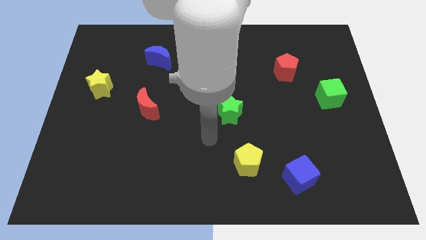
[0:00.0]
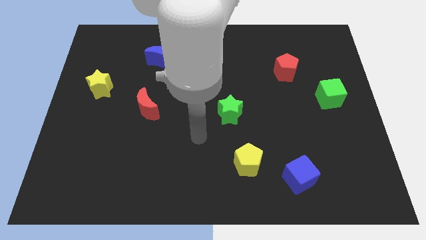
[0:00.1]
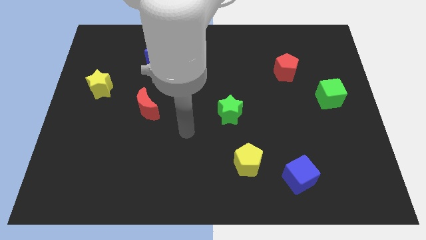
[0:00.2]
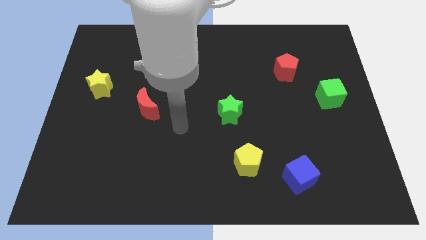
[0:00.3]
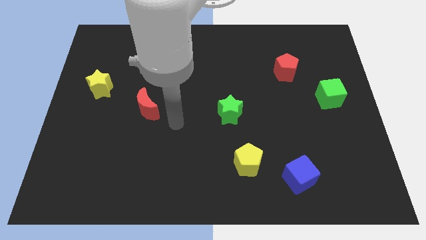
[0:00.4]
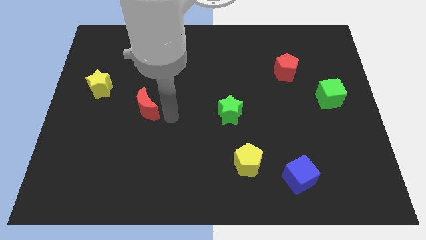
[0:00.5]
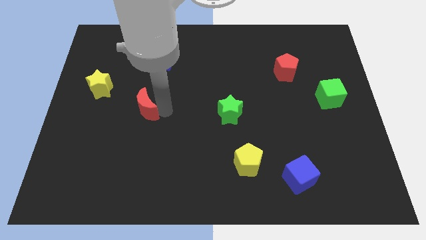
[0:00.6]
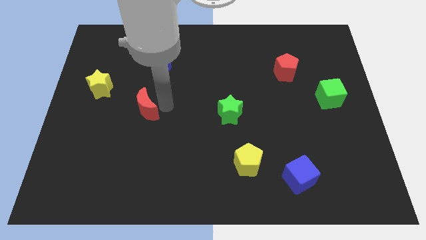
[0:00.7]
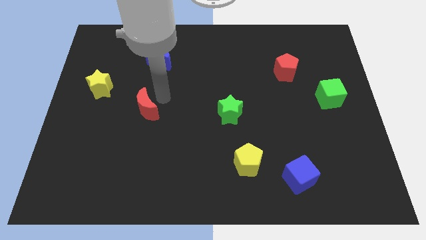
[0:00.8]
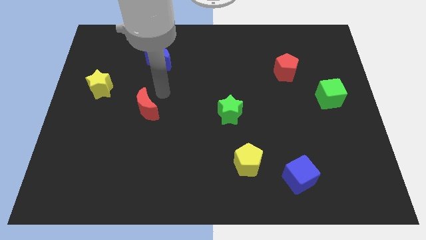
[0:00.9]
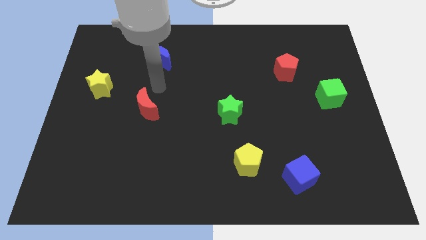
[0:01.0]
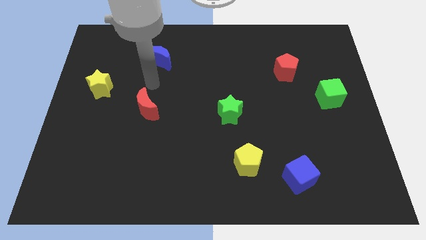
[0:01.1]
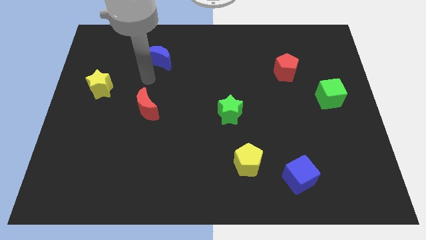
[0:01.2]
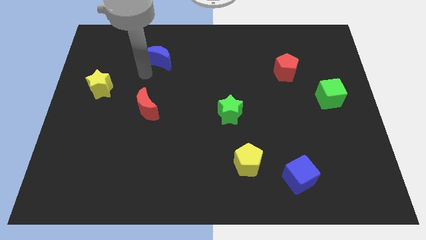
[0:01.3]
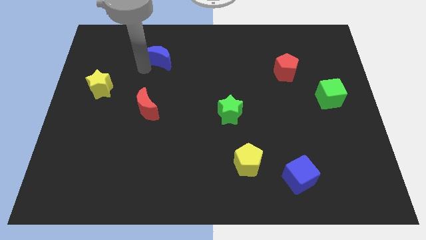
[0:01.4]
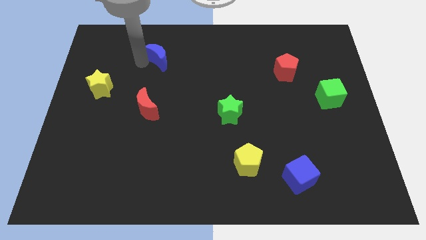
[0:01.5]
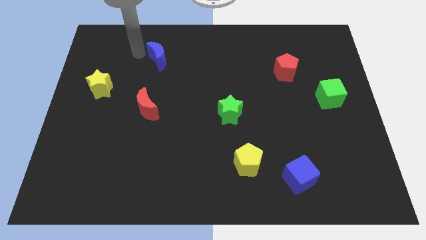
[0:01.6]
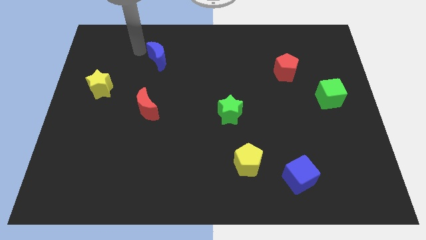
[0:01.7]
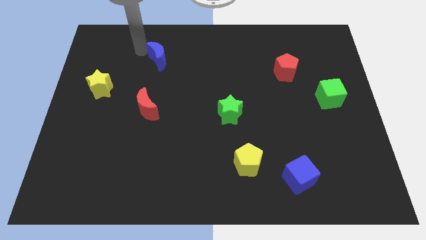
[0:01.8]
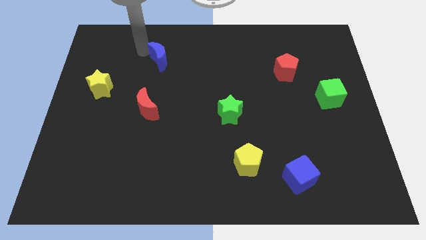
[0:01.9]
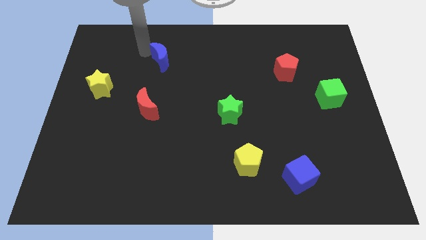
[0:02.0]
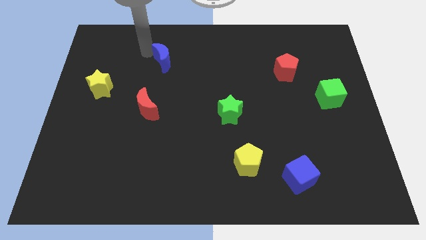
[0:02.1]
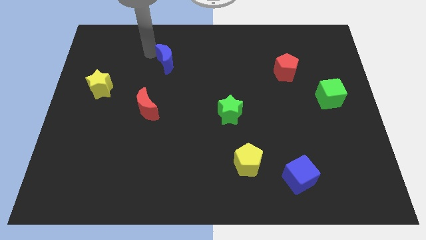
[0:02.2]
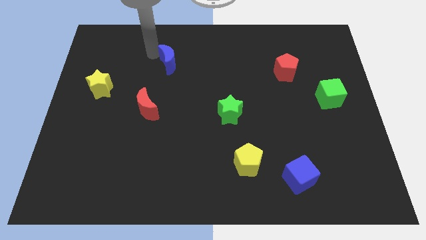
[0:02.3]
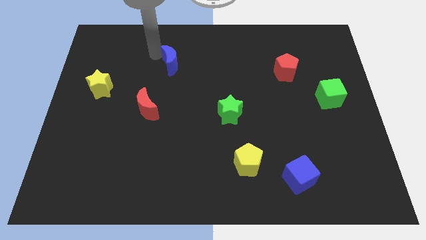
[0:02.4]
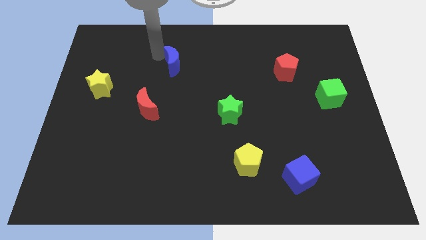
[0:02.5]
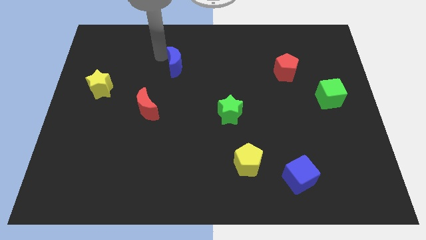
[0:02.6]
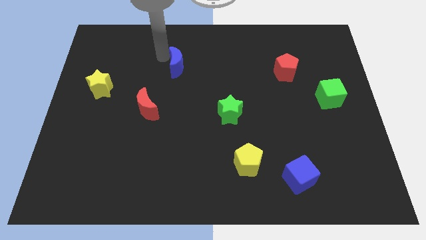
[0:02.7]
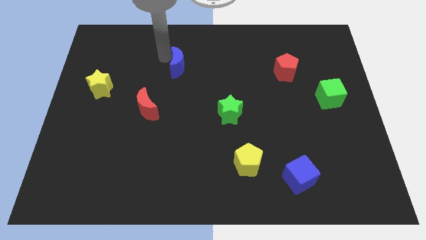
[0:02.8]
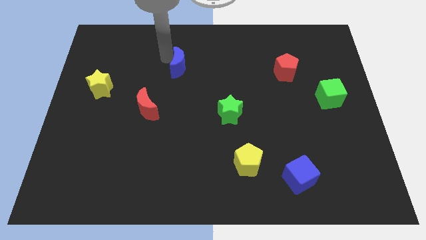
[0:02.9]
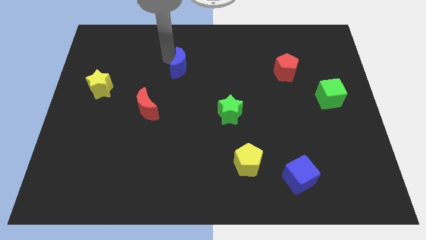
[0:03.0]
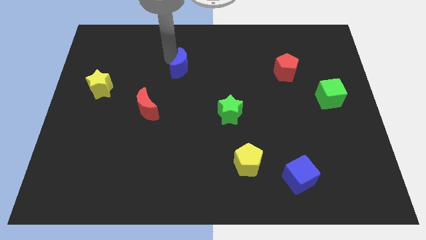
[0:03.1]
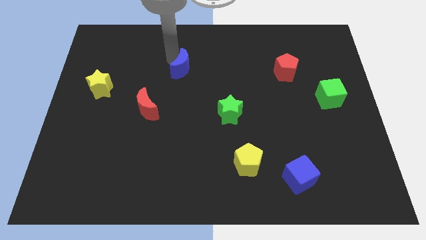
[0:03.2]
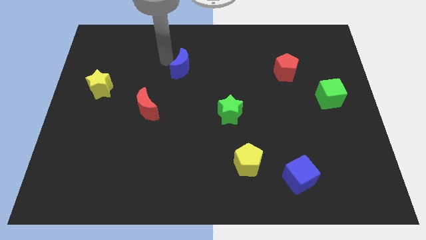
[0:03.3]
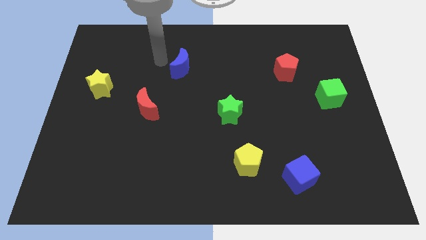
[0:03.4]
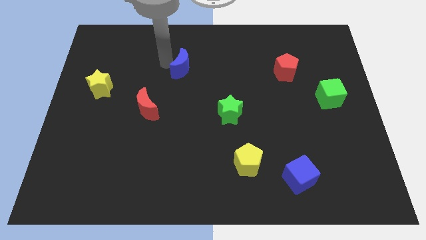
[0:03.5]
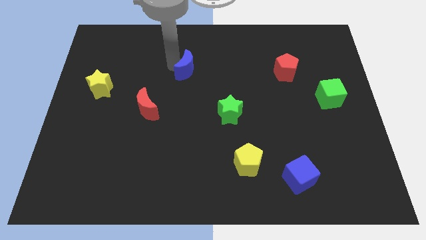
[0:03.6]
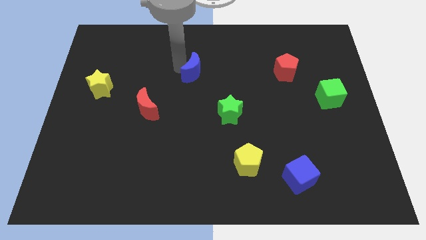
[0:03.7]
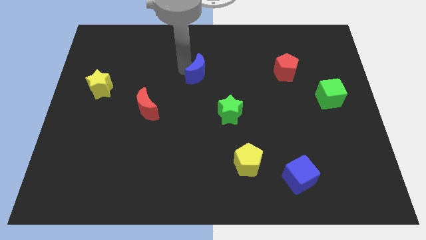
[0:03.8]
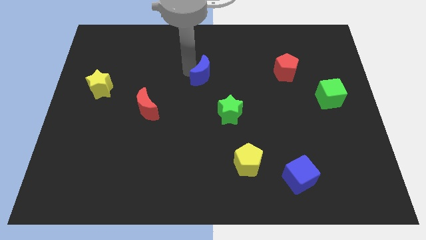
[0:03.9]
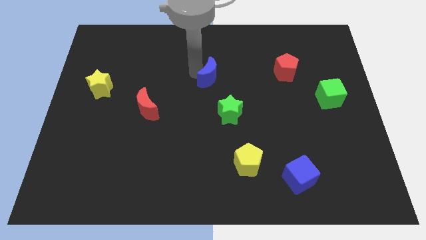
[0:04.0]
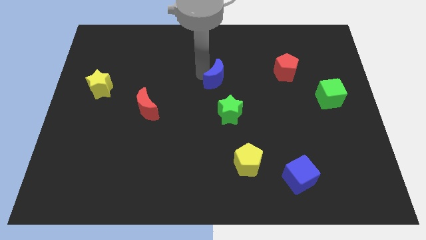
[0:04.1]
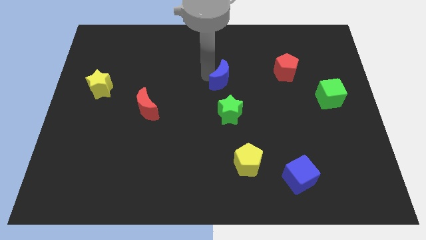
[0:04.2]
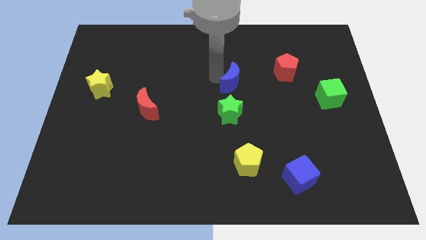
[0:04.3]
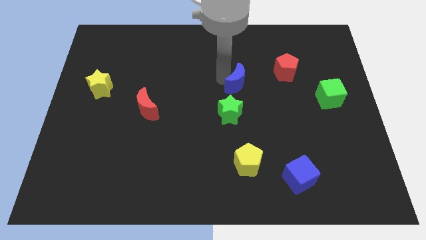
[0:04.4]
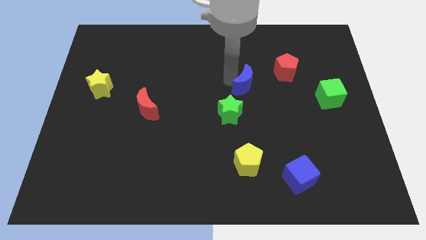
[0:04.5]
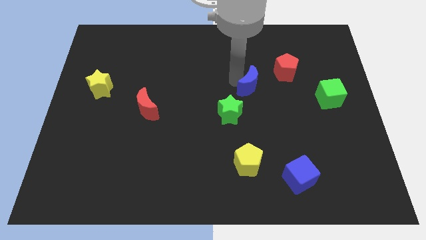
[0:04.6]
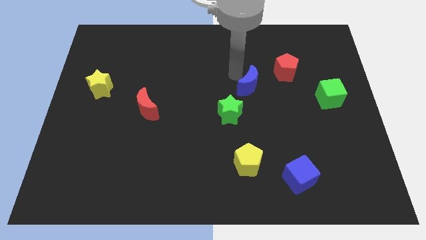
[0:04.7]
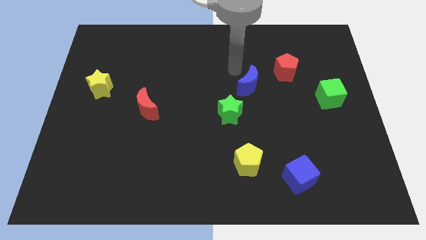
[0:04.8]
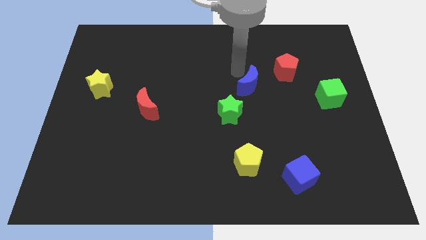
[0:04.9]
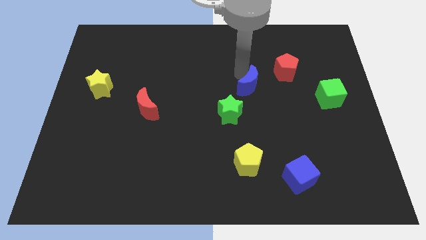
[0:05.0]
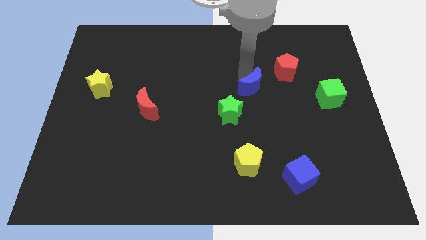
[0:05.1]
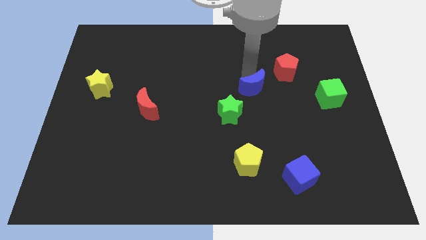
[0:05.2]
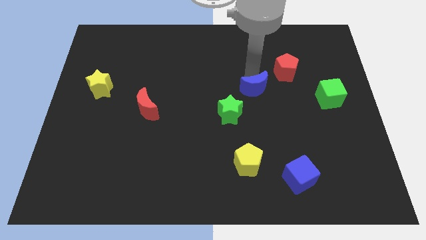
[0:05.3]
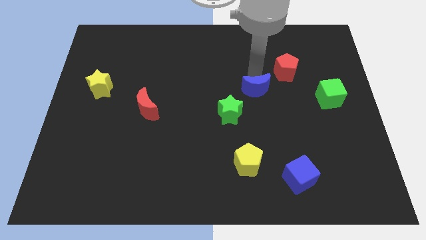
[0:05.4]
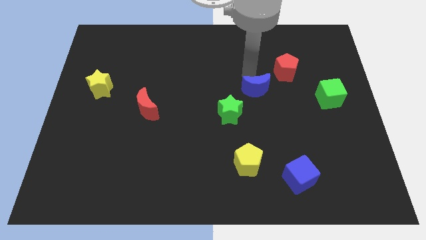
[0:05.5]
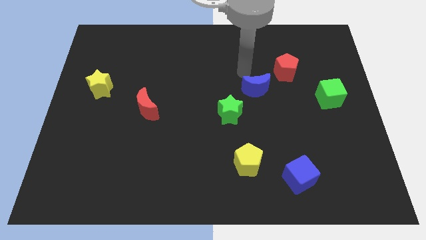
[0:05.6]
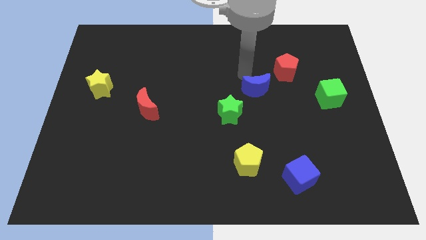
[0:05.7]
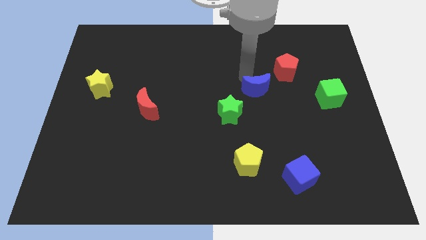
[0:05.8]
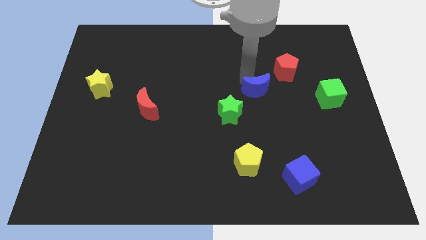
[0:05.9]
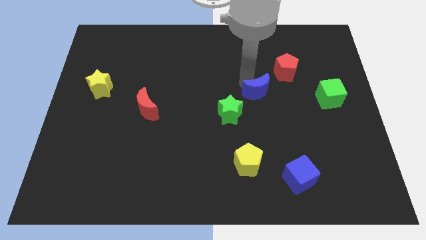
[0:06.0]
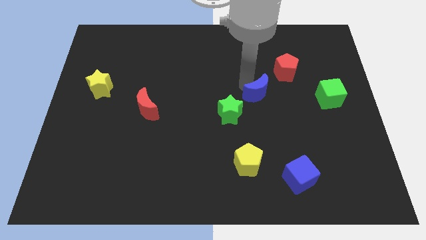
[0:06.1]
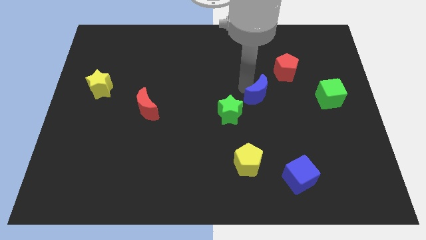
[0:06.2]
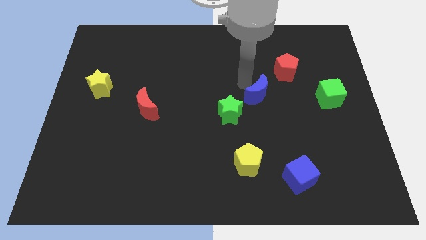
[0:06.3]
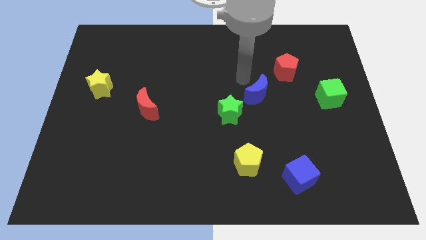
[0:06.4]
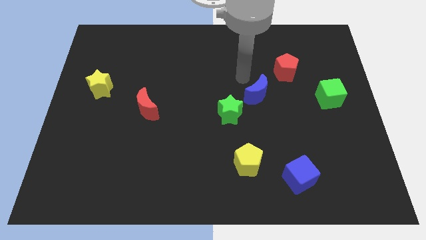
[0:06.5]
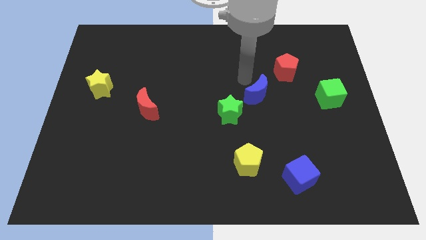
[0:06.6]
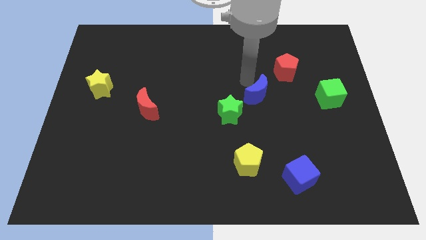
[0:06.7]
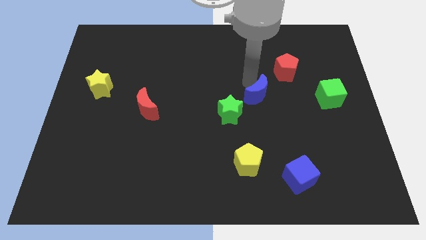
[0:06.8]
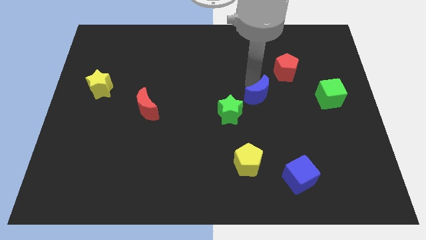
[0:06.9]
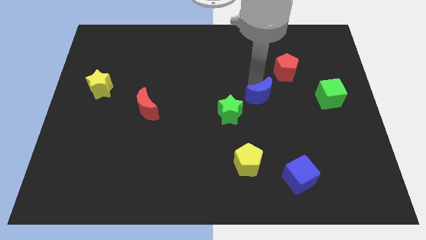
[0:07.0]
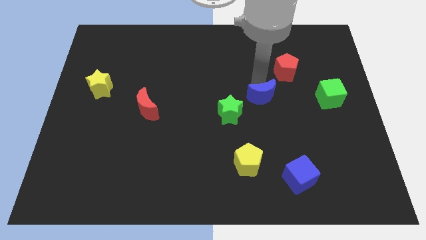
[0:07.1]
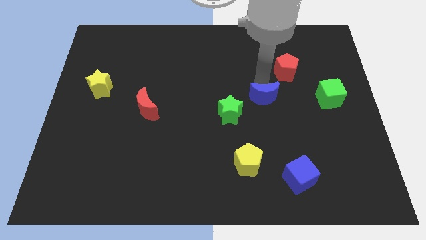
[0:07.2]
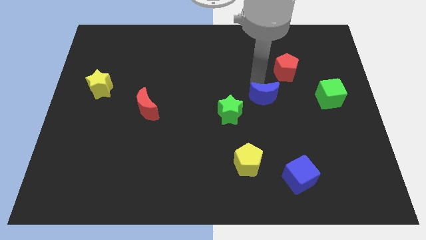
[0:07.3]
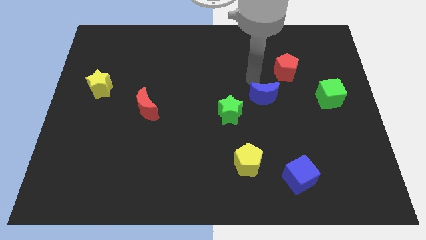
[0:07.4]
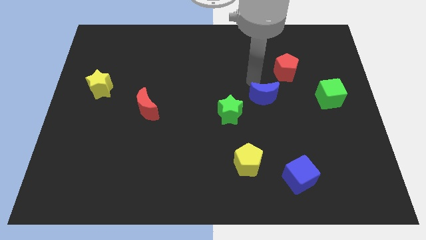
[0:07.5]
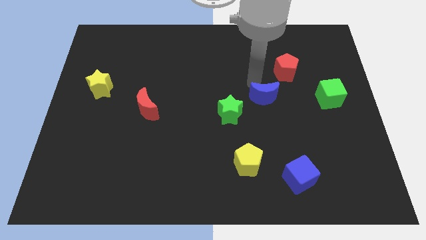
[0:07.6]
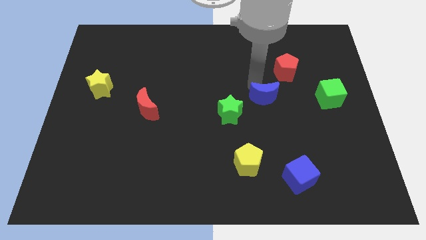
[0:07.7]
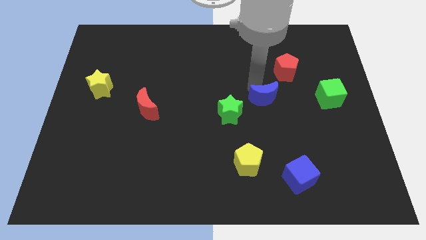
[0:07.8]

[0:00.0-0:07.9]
put the blue moon to the right of the green star
